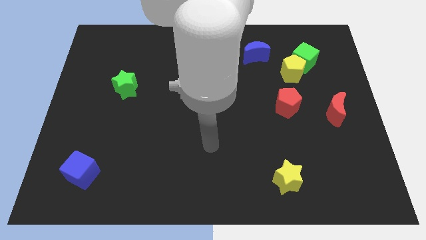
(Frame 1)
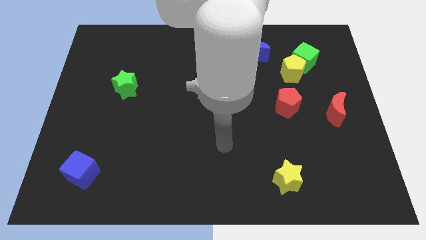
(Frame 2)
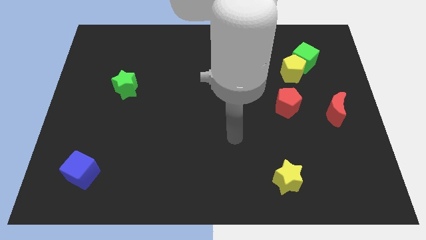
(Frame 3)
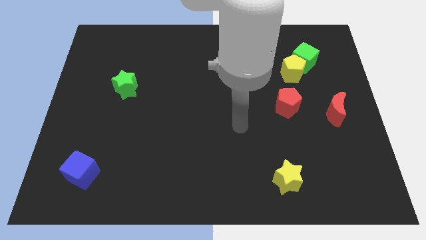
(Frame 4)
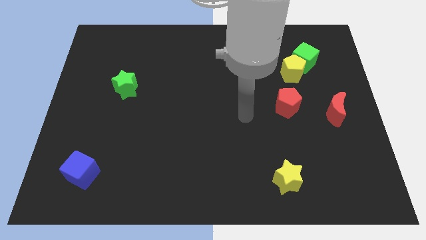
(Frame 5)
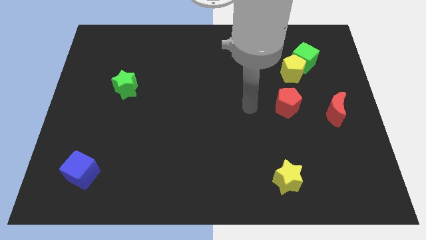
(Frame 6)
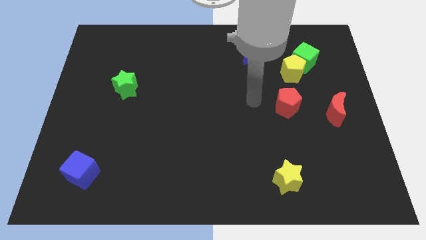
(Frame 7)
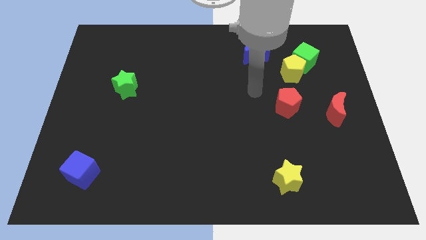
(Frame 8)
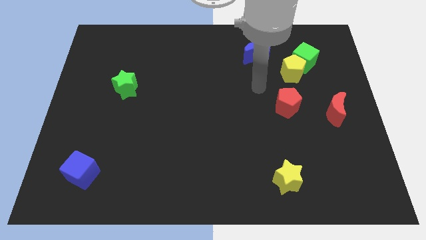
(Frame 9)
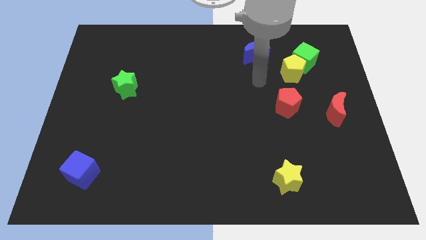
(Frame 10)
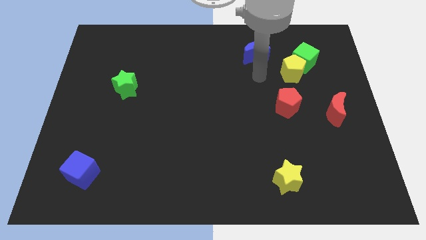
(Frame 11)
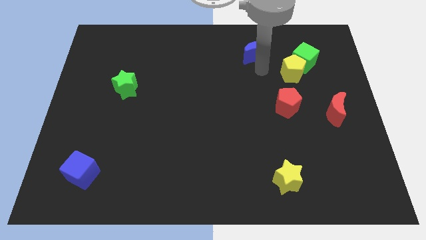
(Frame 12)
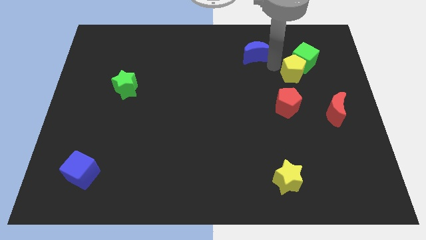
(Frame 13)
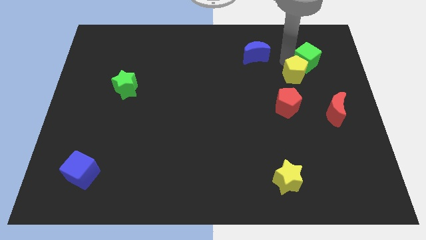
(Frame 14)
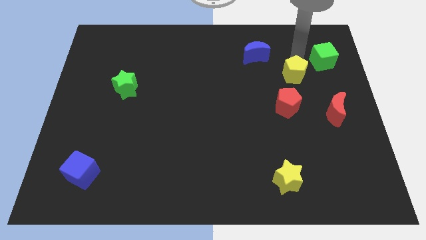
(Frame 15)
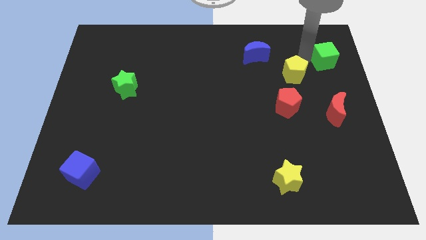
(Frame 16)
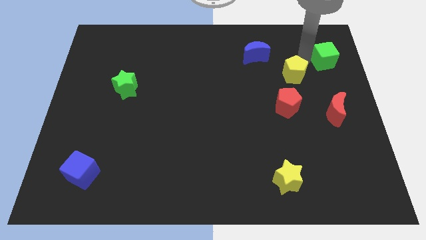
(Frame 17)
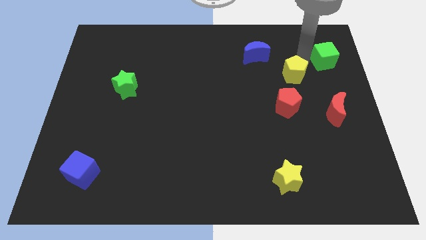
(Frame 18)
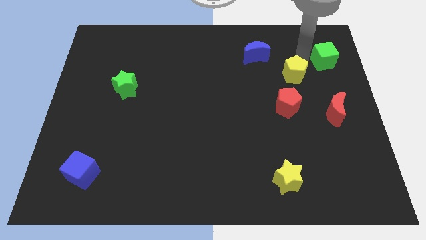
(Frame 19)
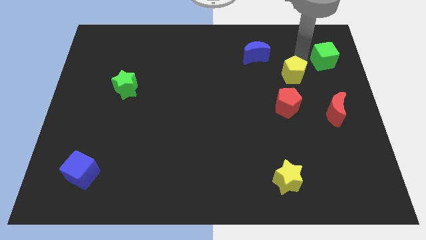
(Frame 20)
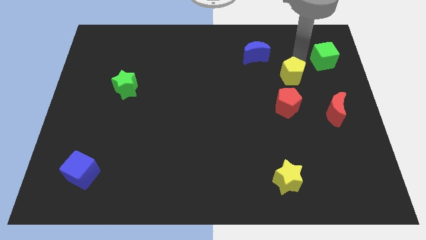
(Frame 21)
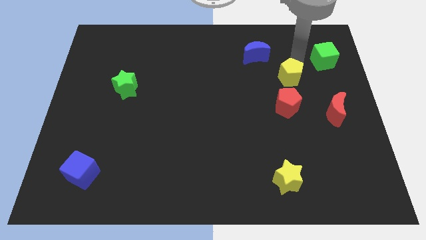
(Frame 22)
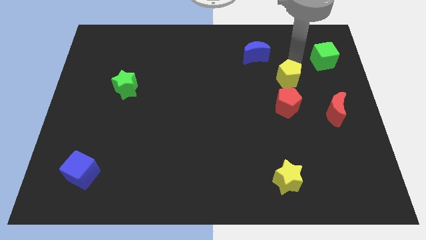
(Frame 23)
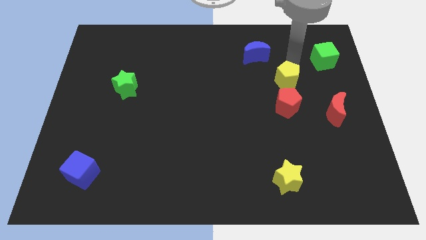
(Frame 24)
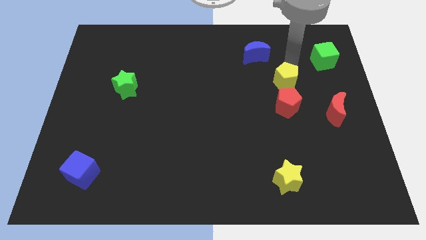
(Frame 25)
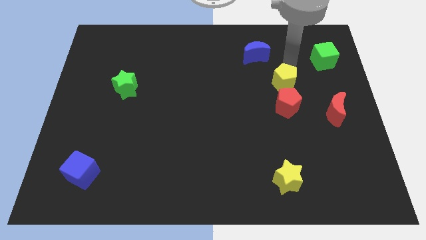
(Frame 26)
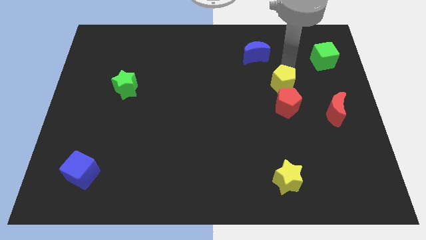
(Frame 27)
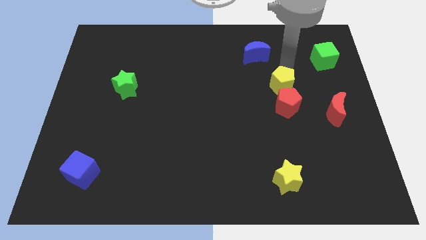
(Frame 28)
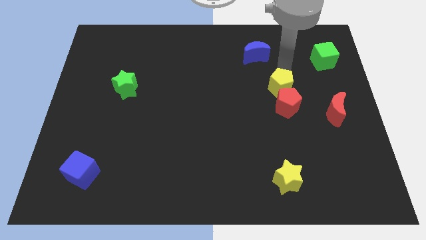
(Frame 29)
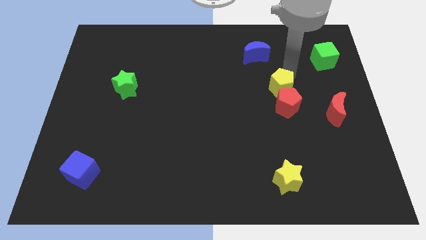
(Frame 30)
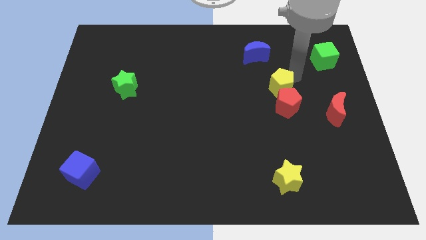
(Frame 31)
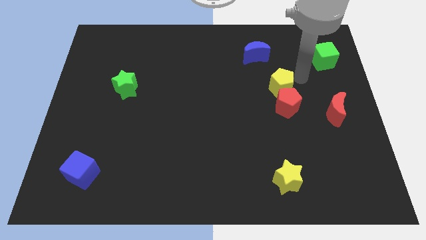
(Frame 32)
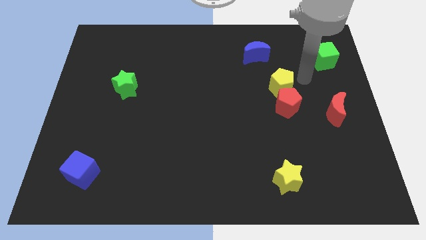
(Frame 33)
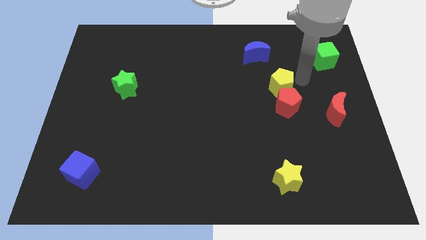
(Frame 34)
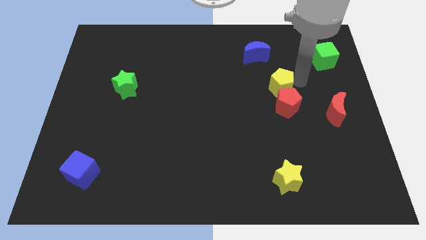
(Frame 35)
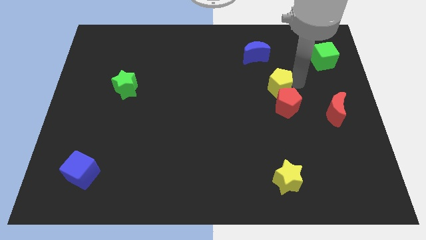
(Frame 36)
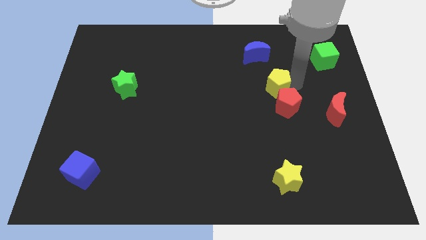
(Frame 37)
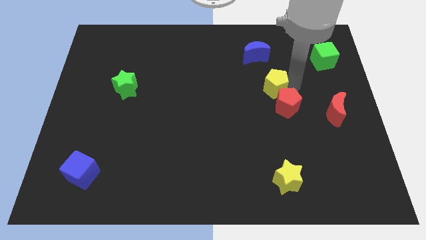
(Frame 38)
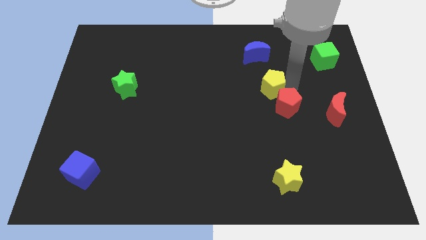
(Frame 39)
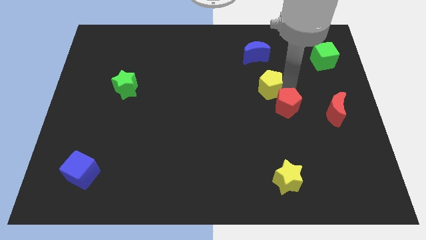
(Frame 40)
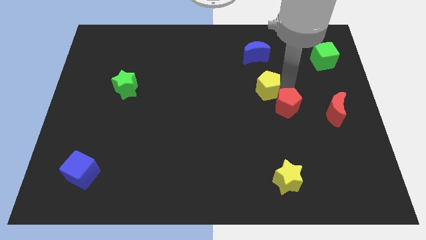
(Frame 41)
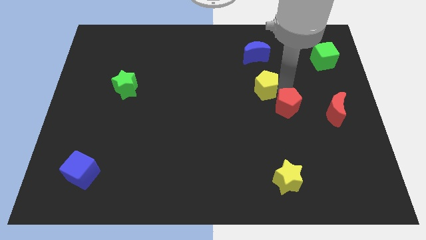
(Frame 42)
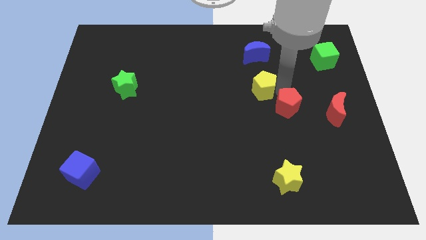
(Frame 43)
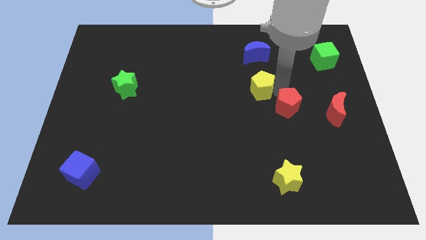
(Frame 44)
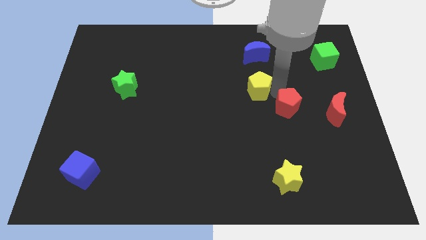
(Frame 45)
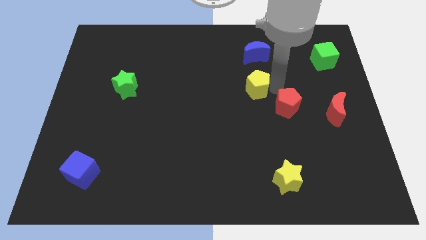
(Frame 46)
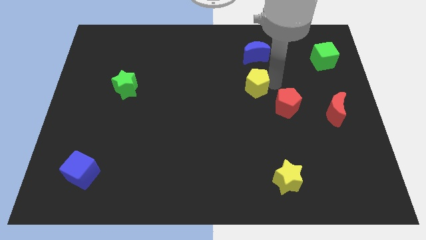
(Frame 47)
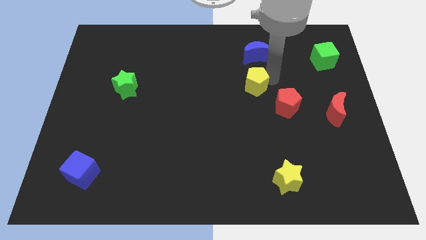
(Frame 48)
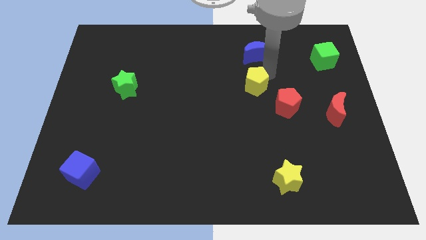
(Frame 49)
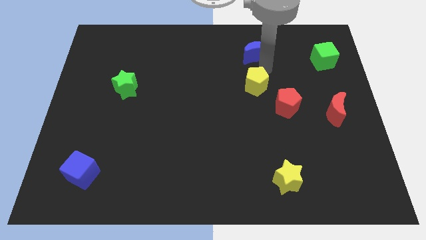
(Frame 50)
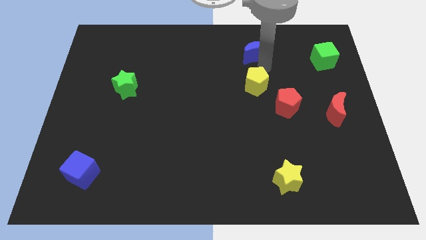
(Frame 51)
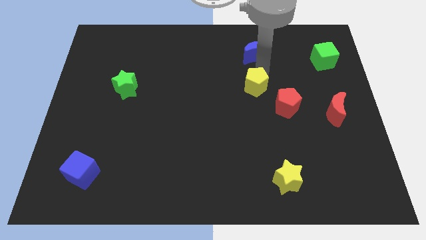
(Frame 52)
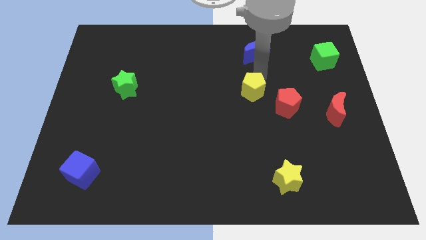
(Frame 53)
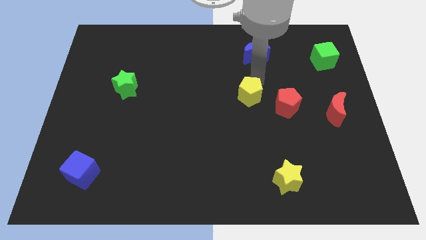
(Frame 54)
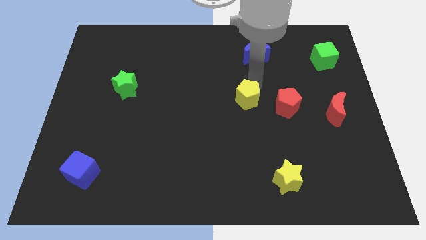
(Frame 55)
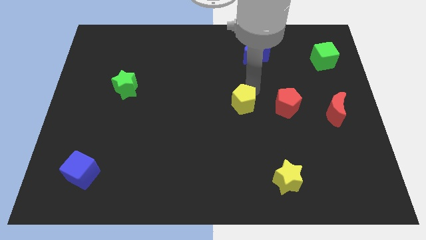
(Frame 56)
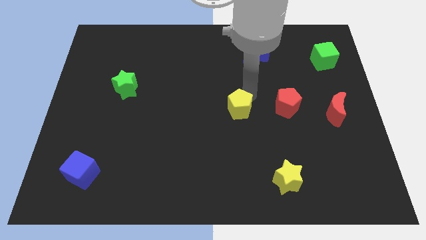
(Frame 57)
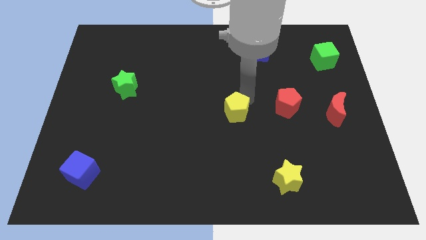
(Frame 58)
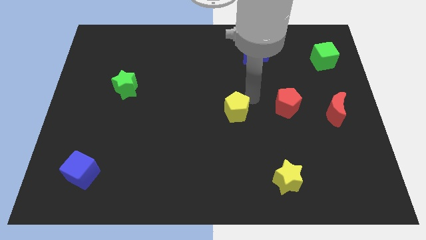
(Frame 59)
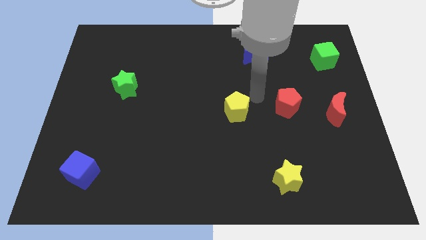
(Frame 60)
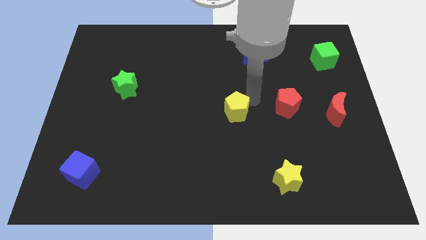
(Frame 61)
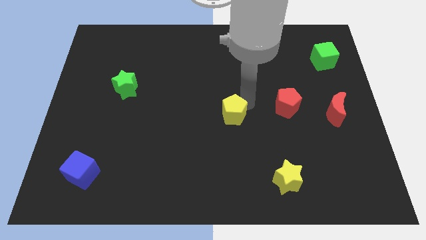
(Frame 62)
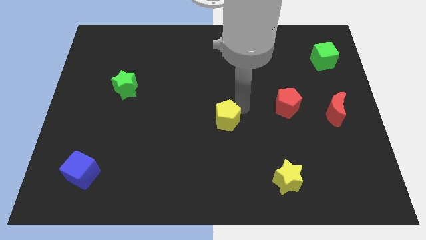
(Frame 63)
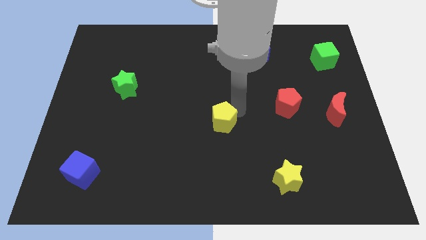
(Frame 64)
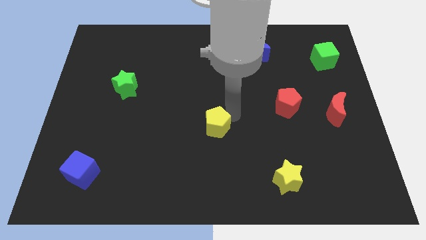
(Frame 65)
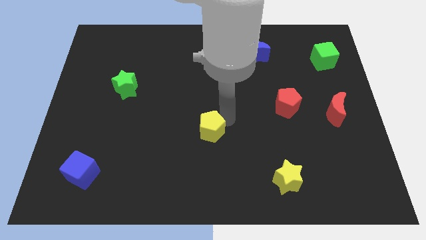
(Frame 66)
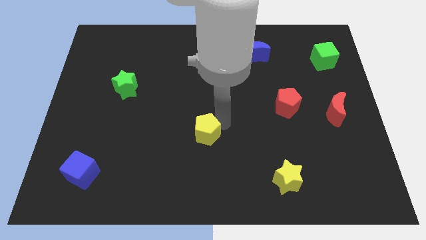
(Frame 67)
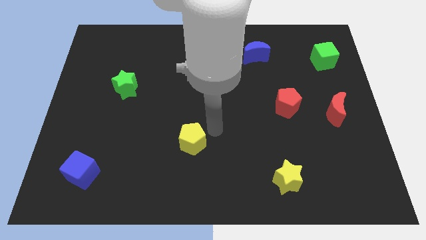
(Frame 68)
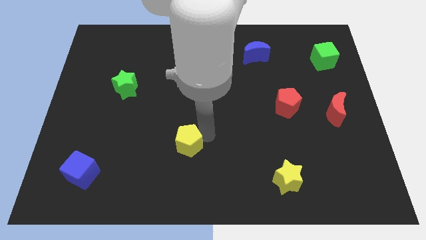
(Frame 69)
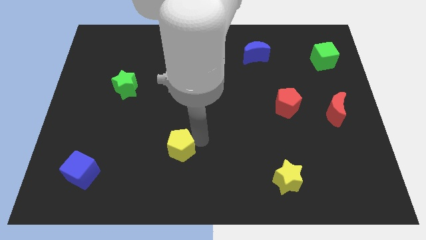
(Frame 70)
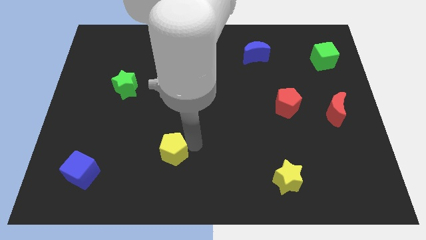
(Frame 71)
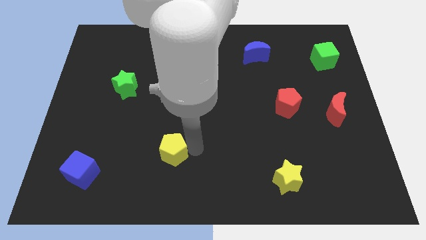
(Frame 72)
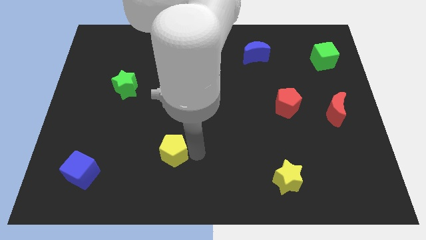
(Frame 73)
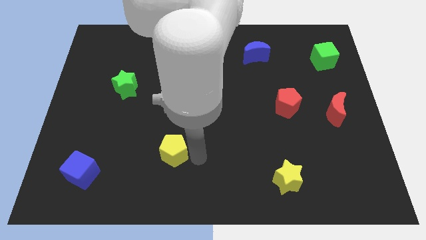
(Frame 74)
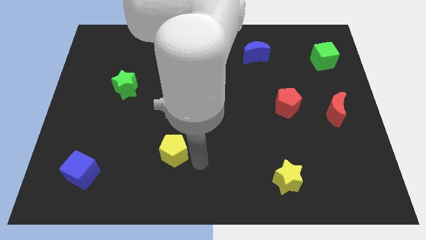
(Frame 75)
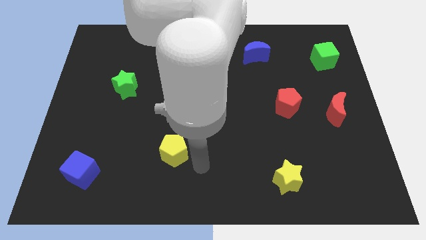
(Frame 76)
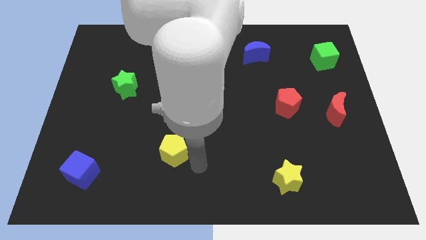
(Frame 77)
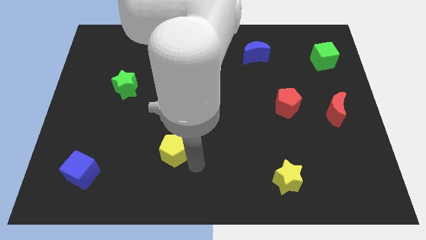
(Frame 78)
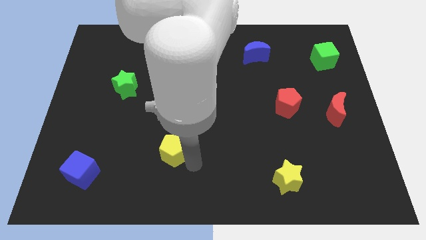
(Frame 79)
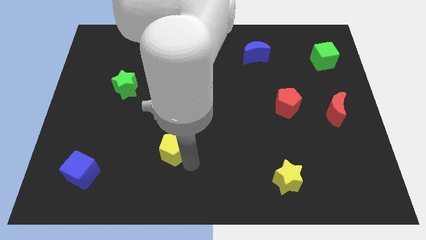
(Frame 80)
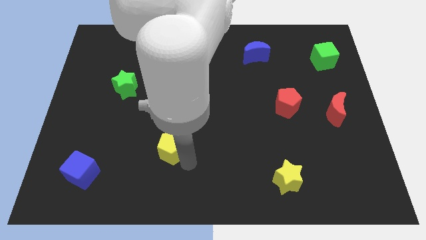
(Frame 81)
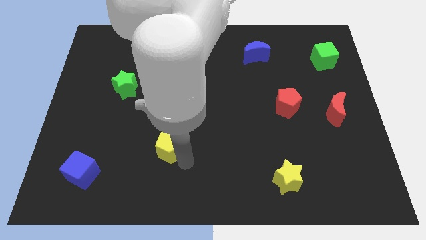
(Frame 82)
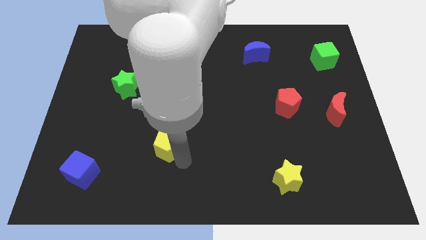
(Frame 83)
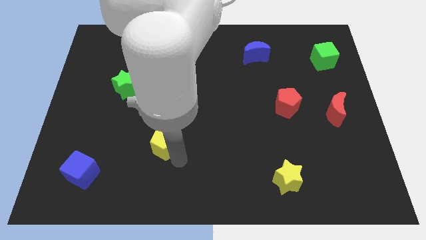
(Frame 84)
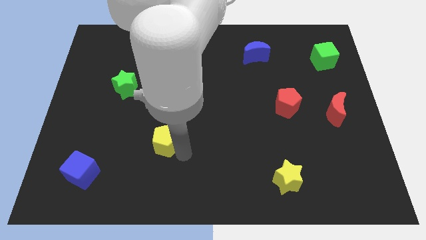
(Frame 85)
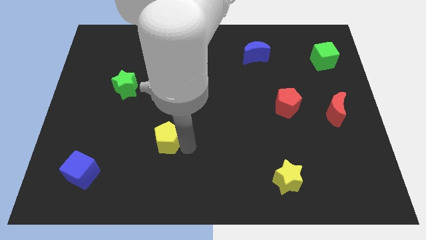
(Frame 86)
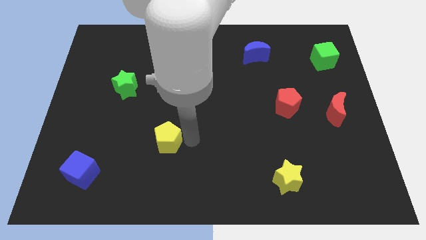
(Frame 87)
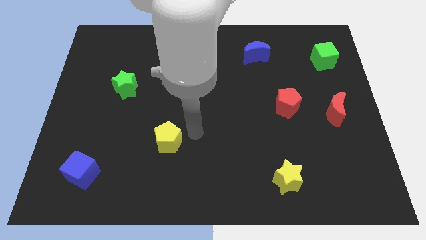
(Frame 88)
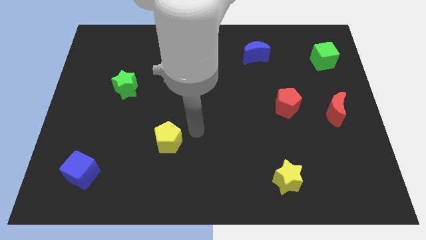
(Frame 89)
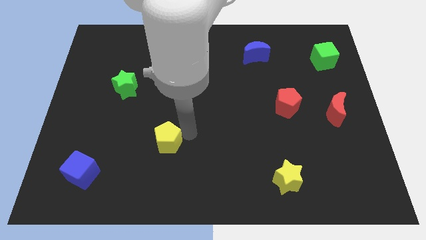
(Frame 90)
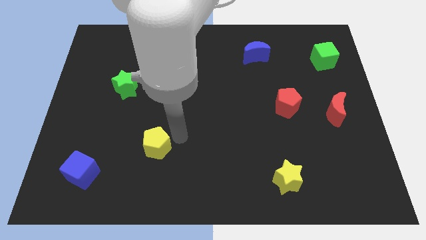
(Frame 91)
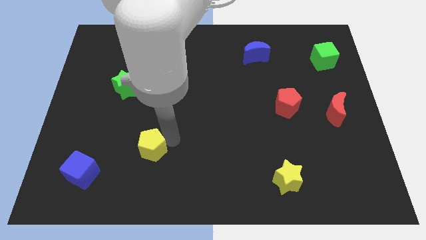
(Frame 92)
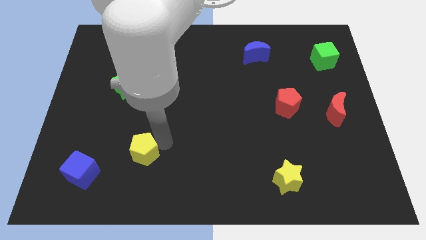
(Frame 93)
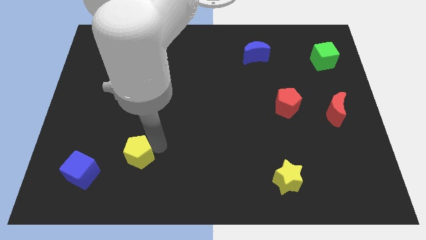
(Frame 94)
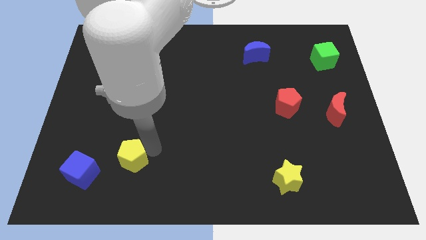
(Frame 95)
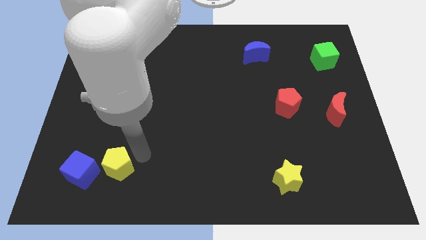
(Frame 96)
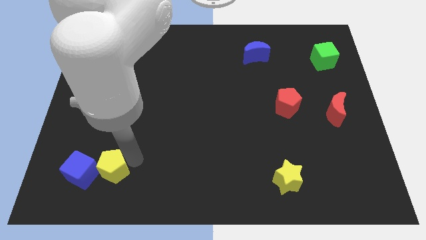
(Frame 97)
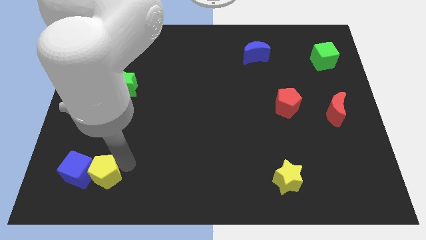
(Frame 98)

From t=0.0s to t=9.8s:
move the yellow pentagon next to the blue cube
